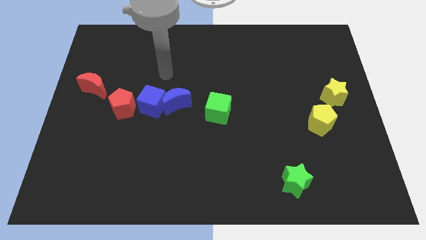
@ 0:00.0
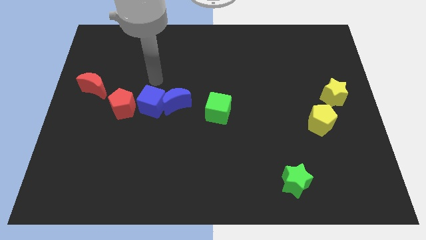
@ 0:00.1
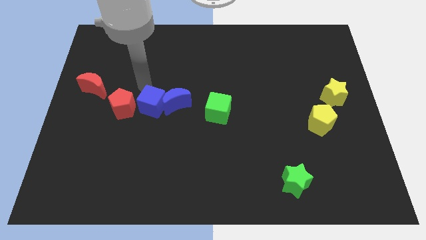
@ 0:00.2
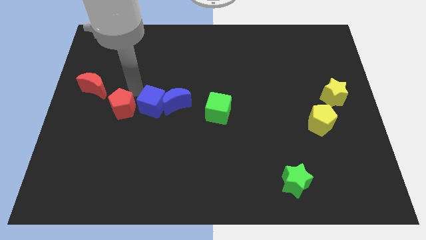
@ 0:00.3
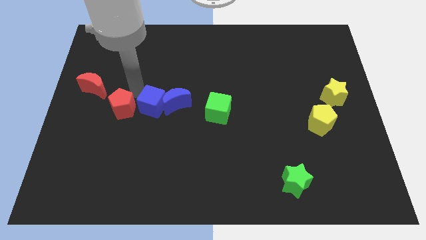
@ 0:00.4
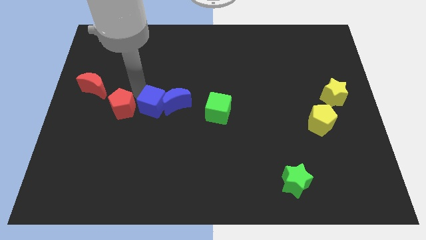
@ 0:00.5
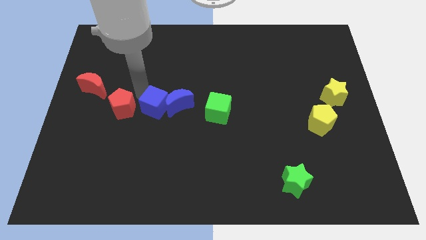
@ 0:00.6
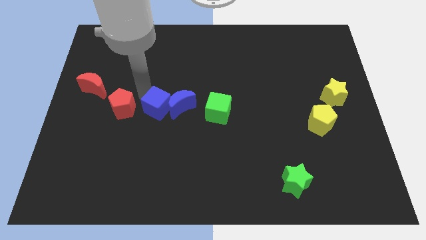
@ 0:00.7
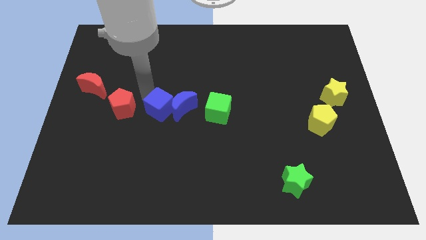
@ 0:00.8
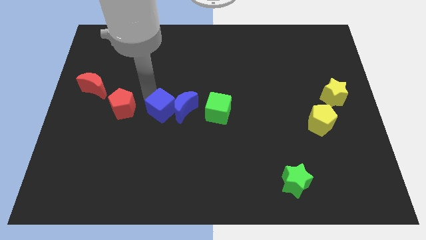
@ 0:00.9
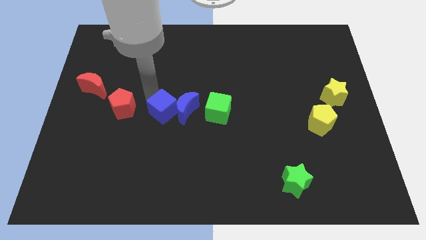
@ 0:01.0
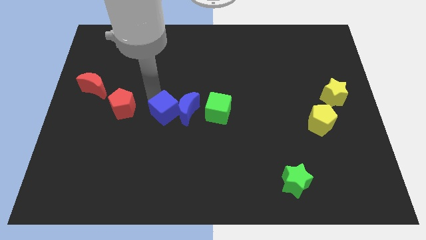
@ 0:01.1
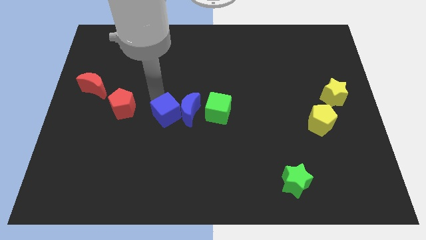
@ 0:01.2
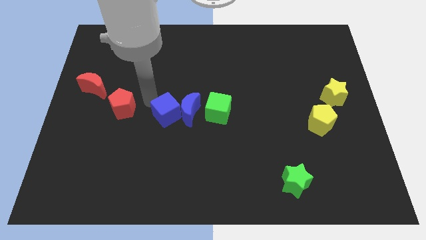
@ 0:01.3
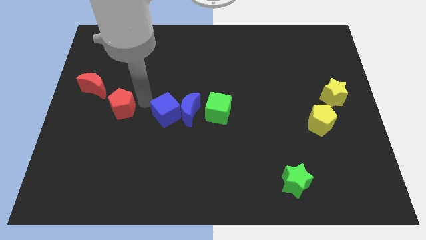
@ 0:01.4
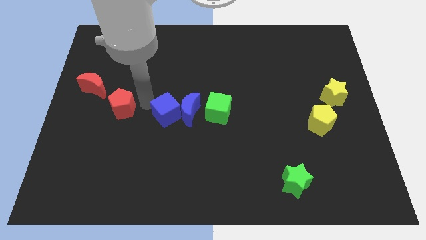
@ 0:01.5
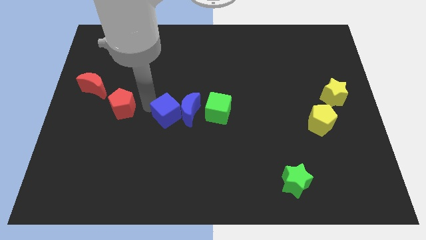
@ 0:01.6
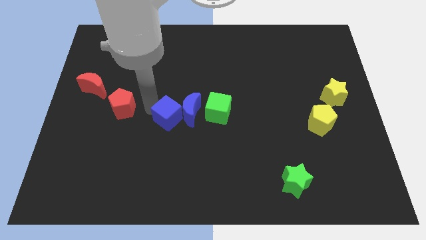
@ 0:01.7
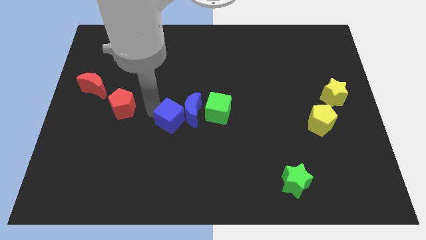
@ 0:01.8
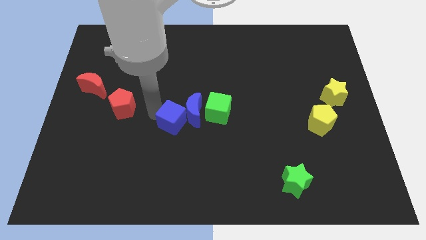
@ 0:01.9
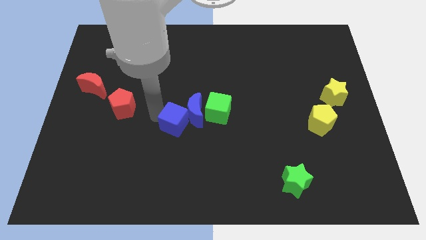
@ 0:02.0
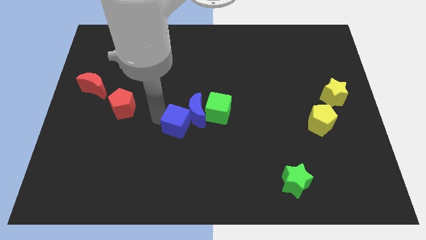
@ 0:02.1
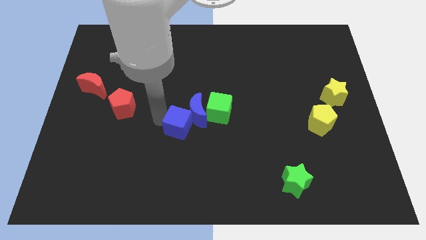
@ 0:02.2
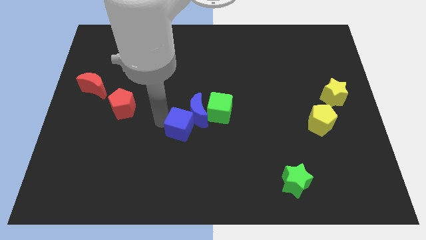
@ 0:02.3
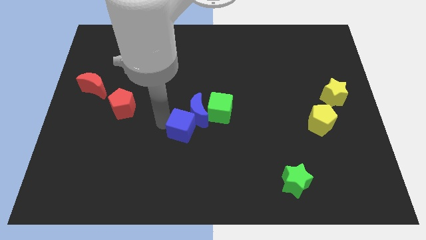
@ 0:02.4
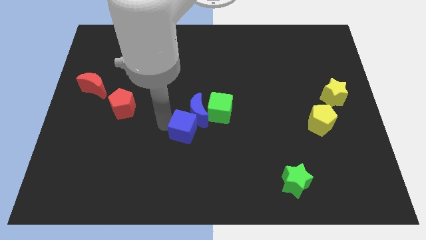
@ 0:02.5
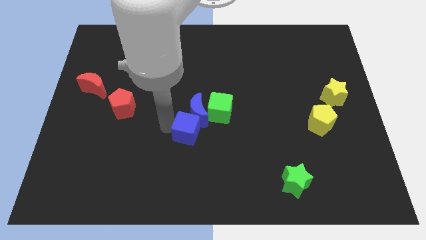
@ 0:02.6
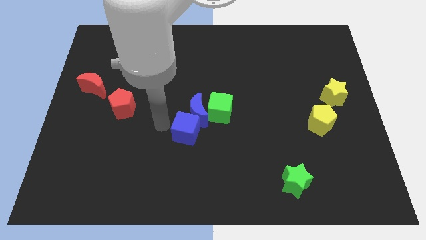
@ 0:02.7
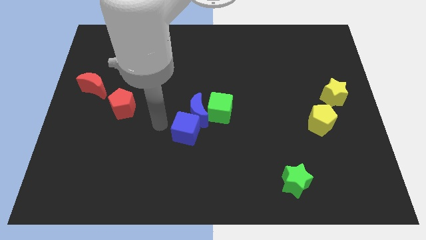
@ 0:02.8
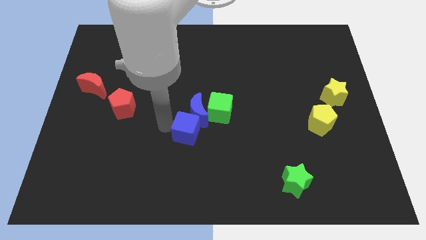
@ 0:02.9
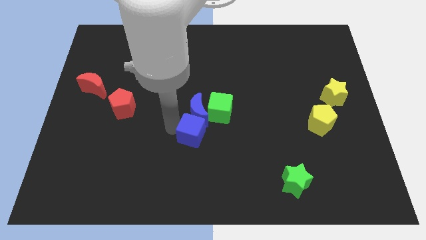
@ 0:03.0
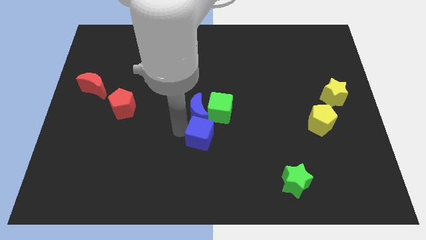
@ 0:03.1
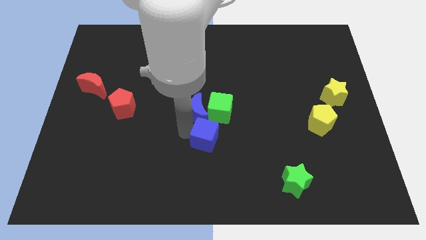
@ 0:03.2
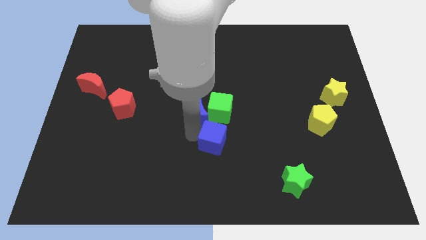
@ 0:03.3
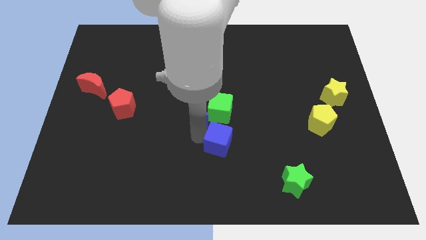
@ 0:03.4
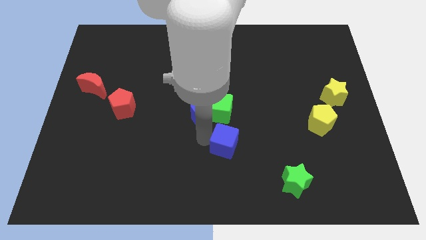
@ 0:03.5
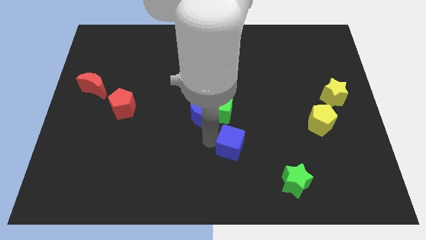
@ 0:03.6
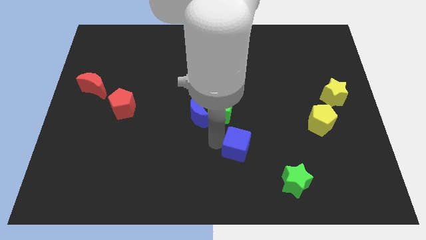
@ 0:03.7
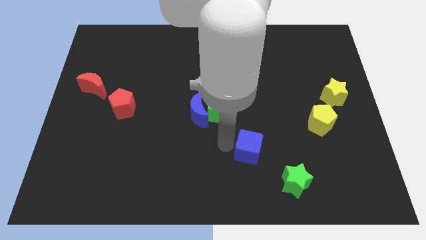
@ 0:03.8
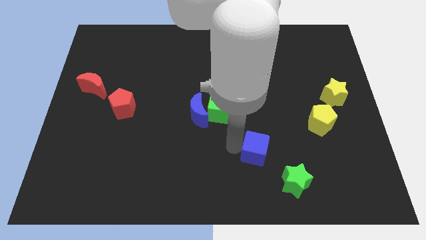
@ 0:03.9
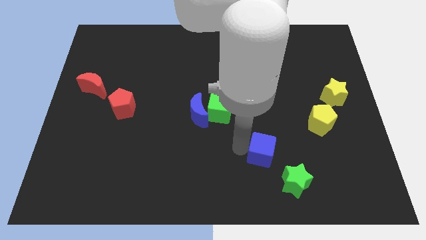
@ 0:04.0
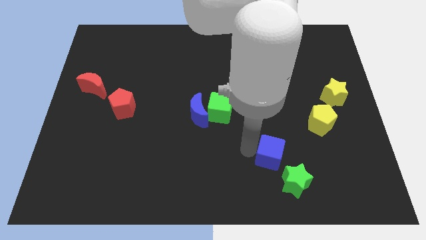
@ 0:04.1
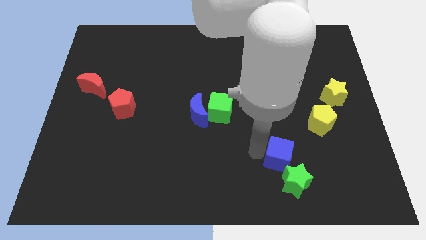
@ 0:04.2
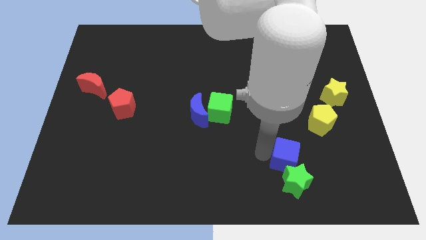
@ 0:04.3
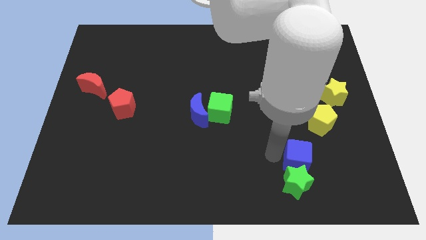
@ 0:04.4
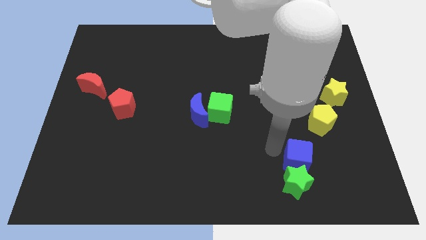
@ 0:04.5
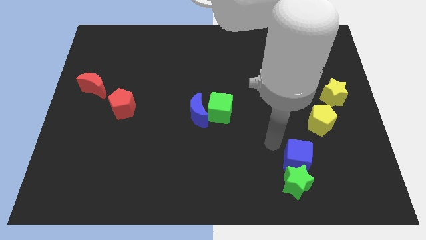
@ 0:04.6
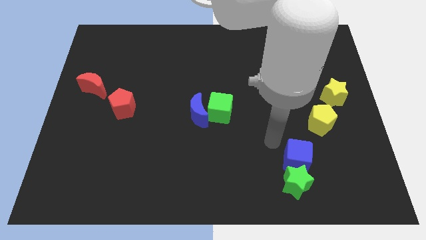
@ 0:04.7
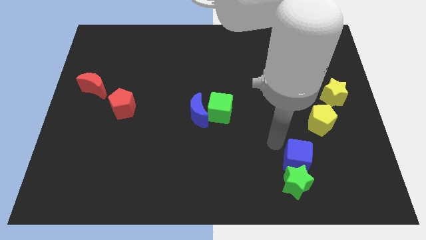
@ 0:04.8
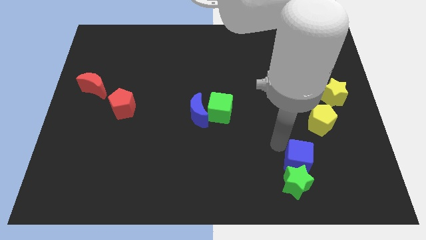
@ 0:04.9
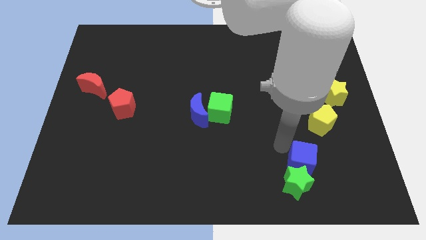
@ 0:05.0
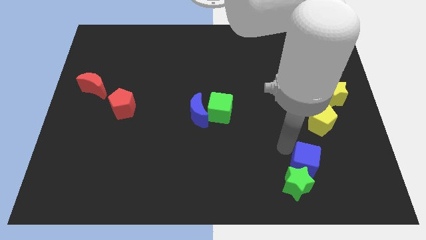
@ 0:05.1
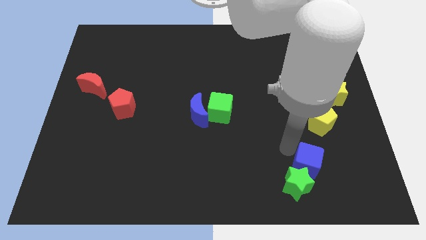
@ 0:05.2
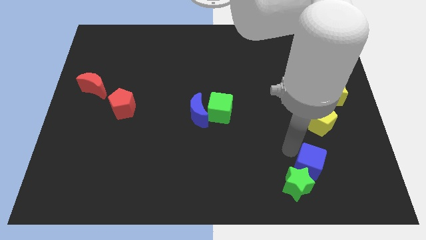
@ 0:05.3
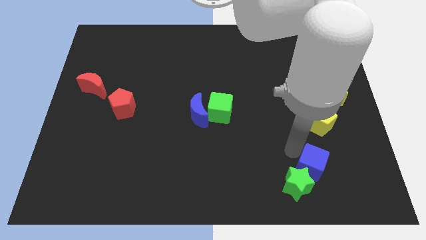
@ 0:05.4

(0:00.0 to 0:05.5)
move the blue cube to the right side of the green star
